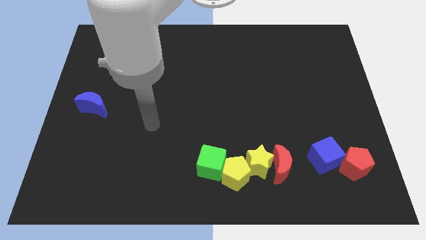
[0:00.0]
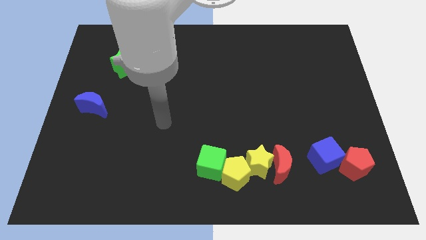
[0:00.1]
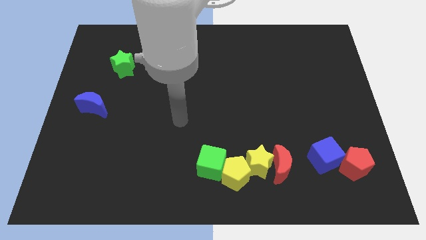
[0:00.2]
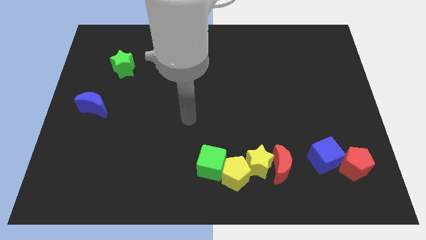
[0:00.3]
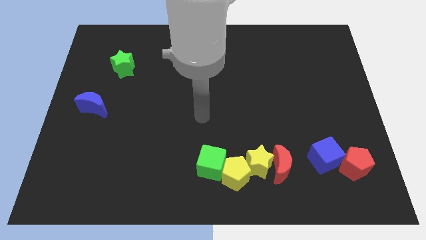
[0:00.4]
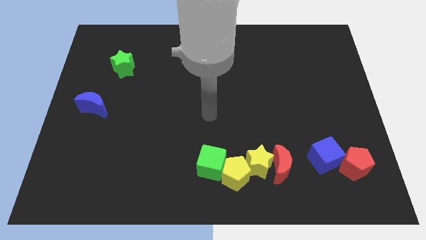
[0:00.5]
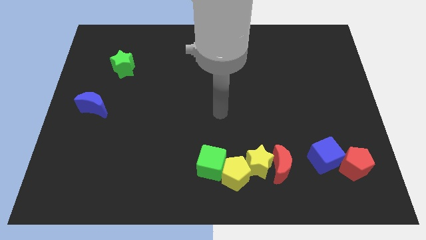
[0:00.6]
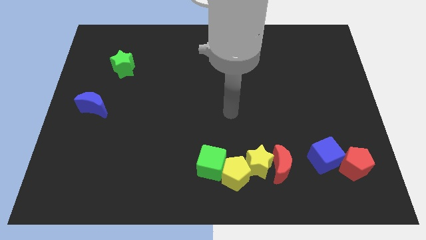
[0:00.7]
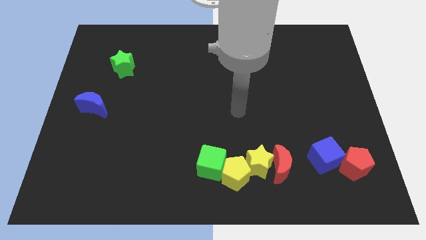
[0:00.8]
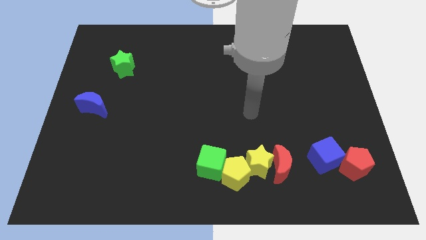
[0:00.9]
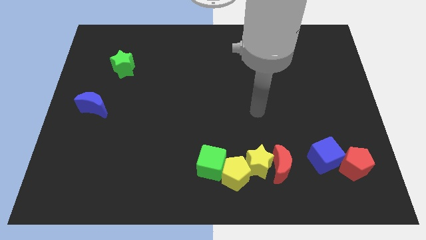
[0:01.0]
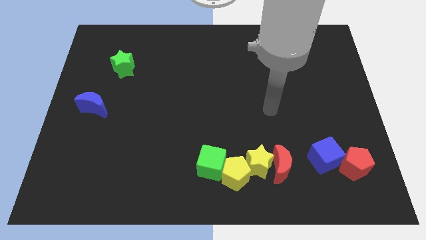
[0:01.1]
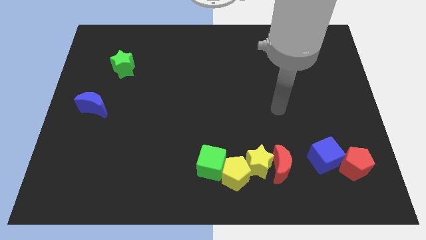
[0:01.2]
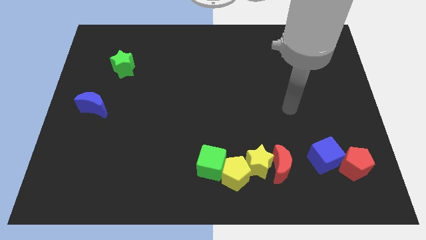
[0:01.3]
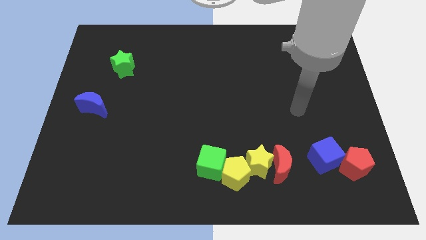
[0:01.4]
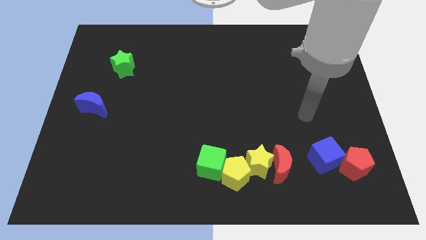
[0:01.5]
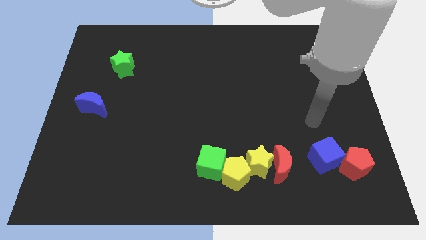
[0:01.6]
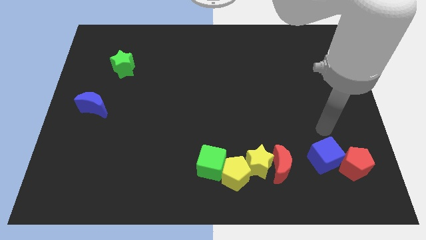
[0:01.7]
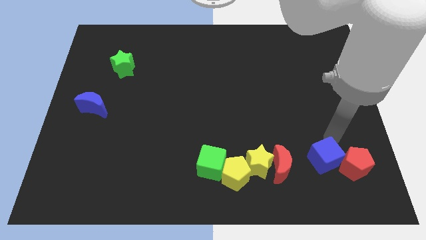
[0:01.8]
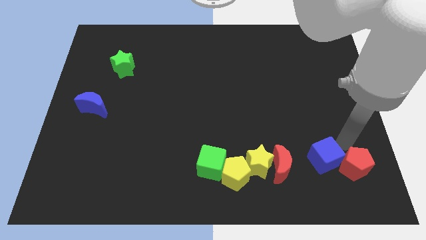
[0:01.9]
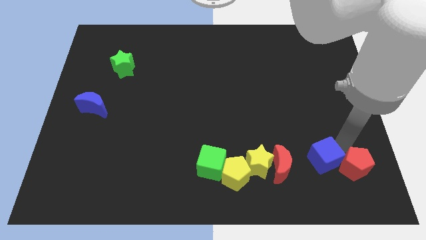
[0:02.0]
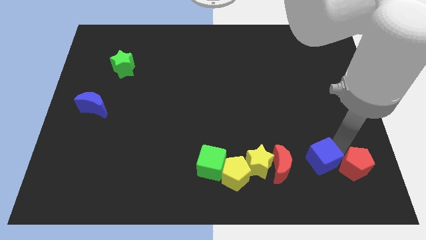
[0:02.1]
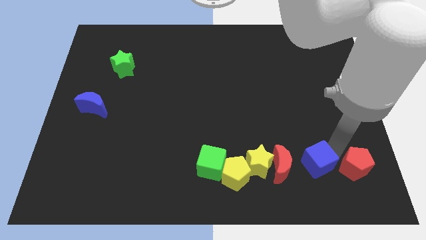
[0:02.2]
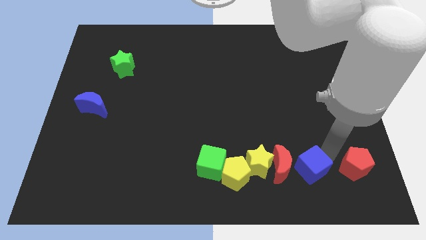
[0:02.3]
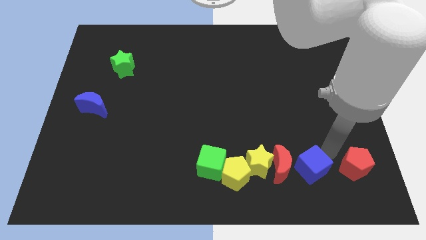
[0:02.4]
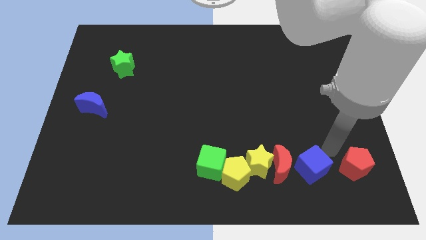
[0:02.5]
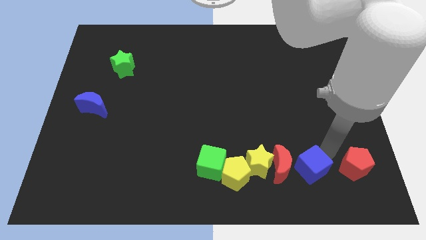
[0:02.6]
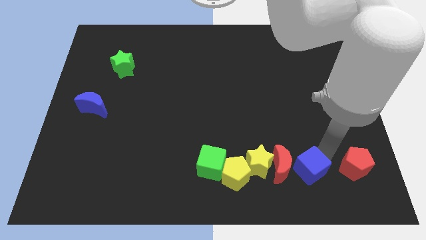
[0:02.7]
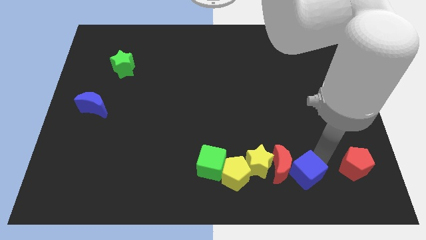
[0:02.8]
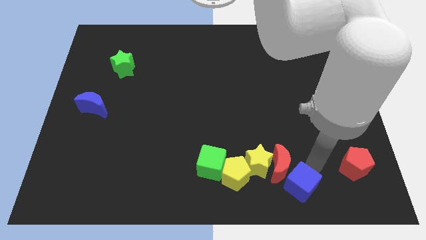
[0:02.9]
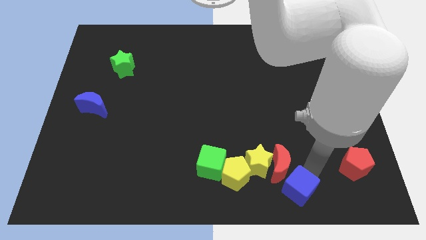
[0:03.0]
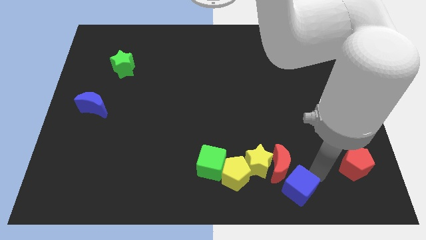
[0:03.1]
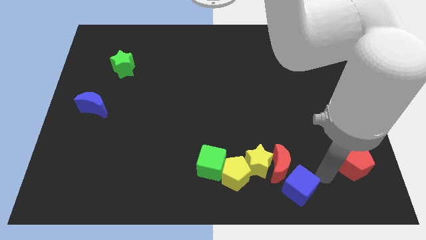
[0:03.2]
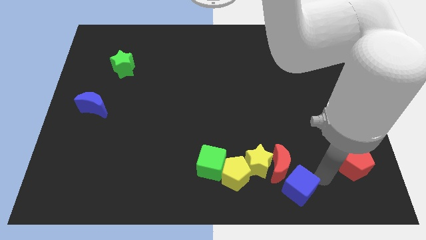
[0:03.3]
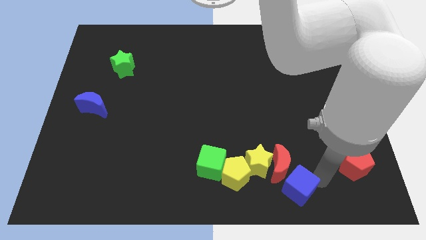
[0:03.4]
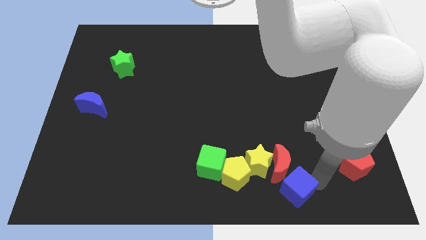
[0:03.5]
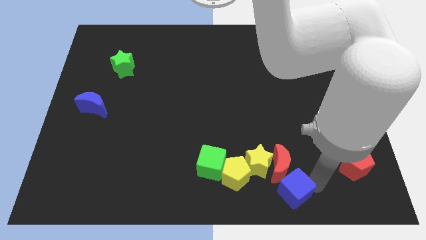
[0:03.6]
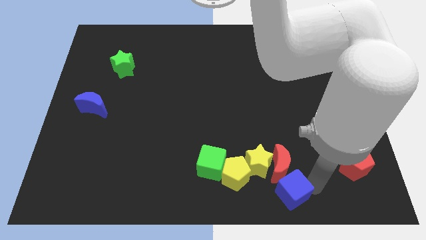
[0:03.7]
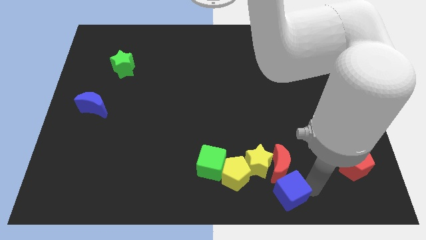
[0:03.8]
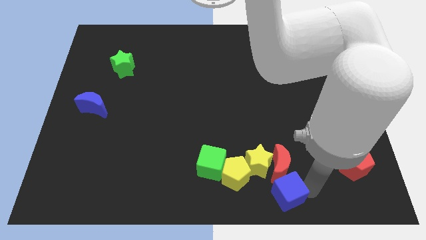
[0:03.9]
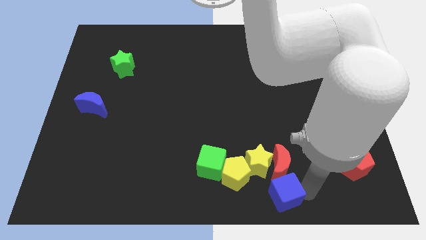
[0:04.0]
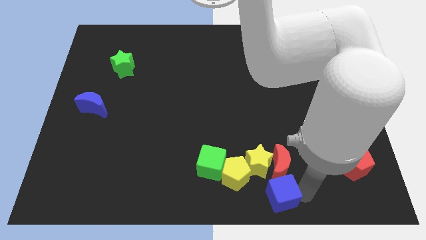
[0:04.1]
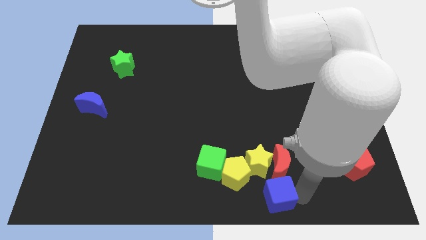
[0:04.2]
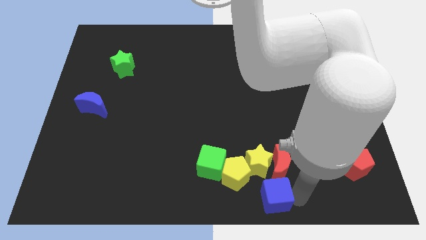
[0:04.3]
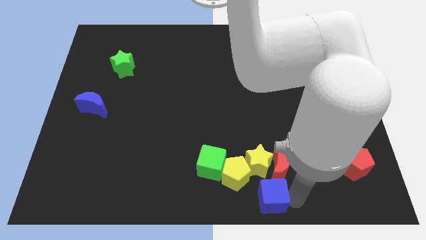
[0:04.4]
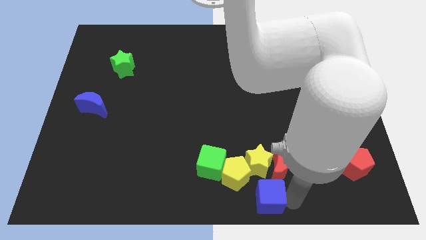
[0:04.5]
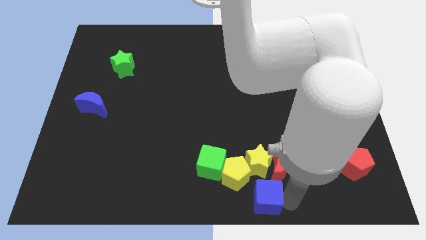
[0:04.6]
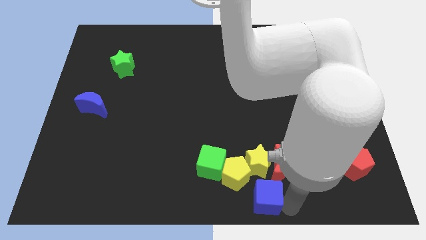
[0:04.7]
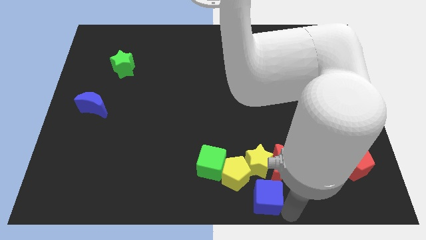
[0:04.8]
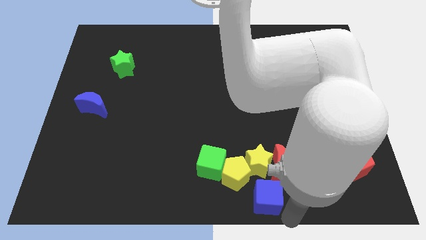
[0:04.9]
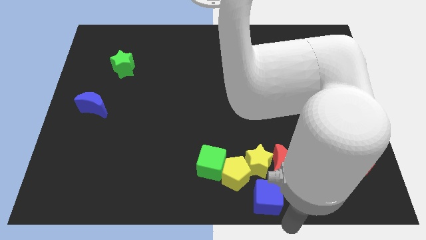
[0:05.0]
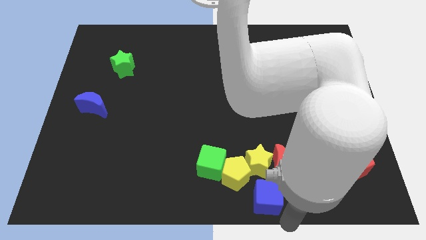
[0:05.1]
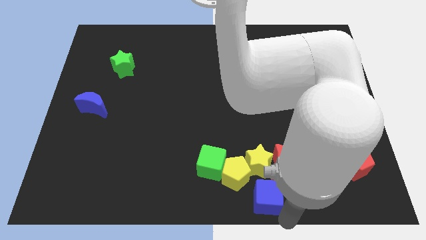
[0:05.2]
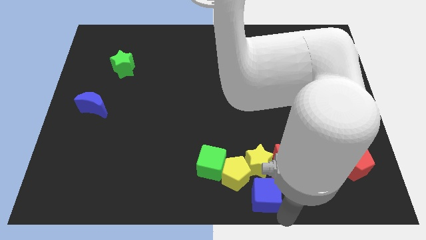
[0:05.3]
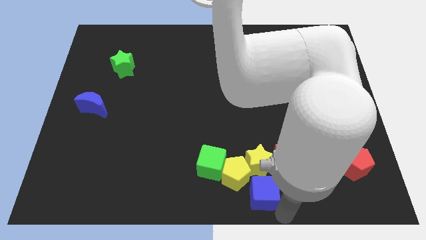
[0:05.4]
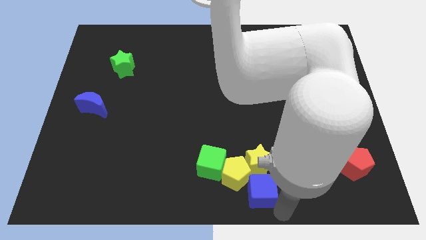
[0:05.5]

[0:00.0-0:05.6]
push the blue cube to the yellow pentagon

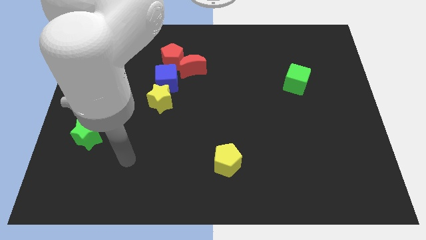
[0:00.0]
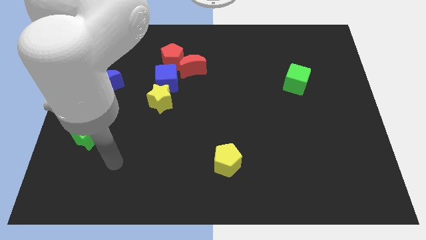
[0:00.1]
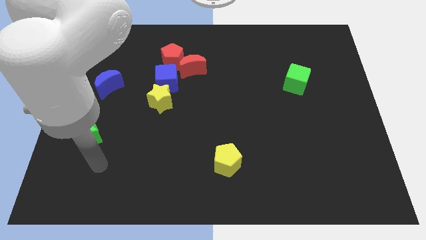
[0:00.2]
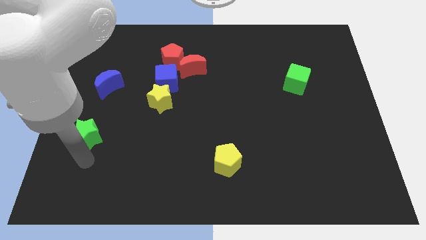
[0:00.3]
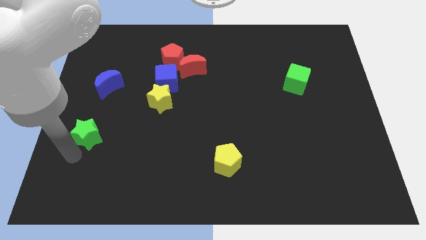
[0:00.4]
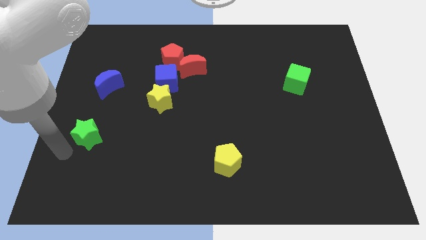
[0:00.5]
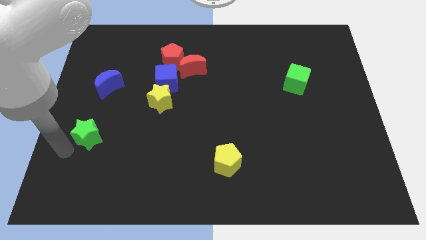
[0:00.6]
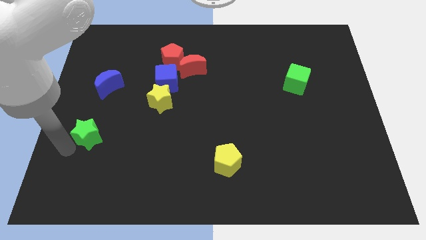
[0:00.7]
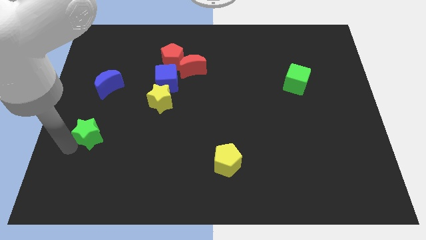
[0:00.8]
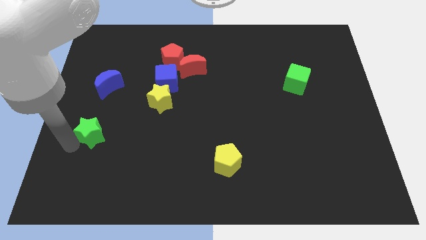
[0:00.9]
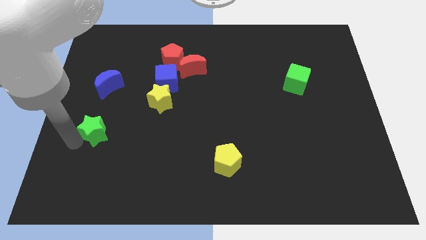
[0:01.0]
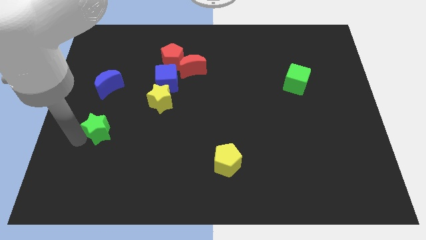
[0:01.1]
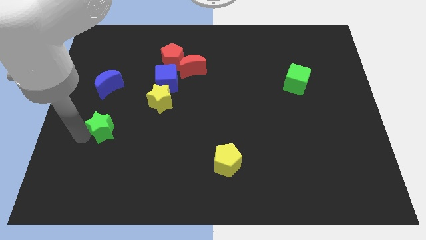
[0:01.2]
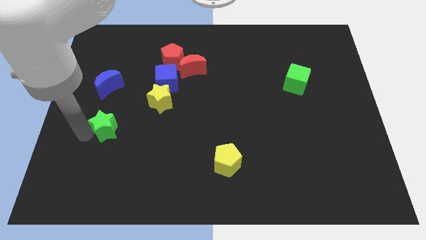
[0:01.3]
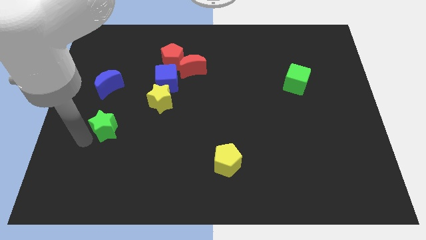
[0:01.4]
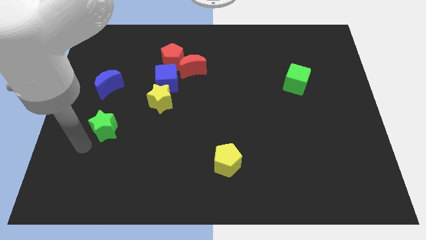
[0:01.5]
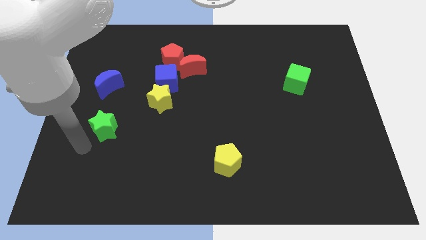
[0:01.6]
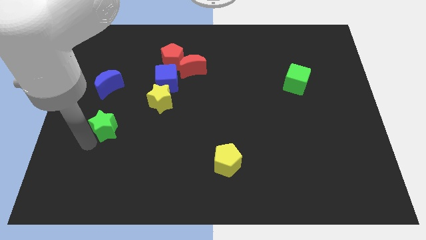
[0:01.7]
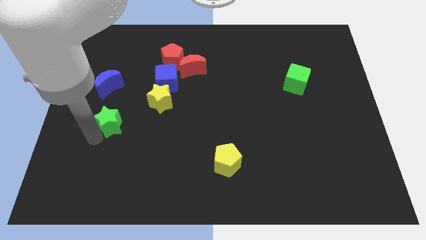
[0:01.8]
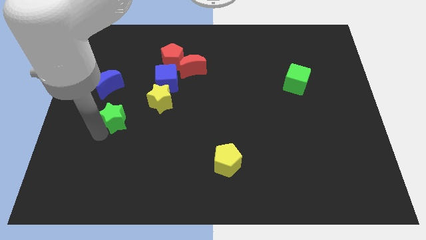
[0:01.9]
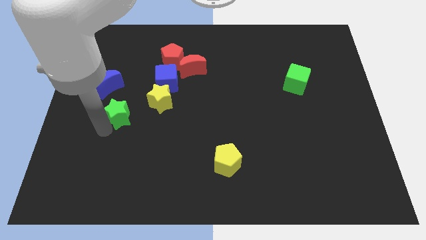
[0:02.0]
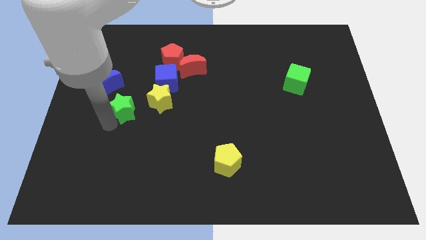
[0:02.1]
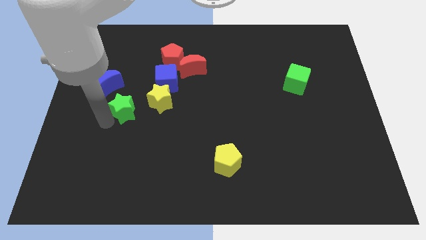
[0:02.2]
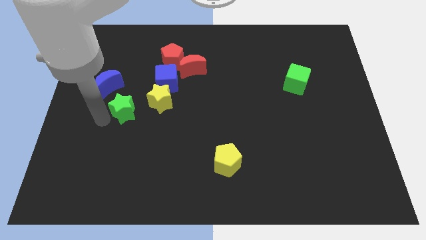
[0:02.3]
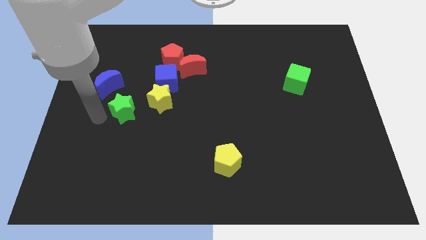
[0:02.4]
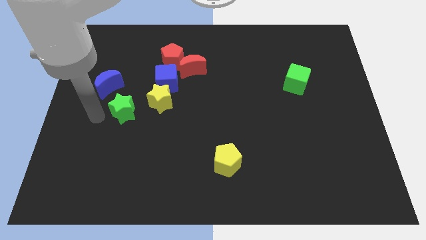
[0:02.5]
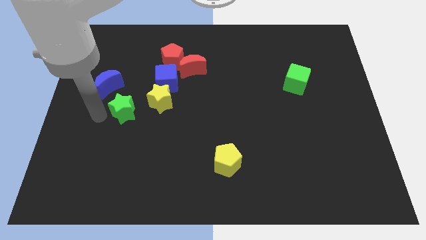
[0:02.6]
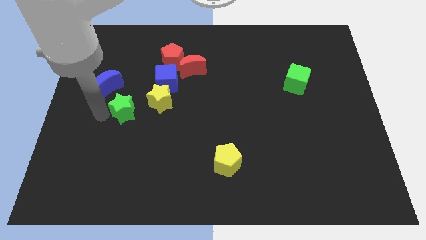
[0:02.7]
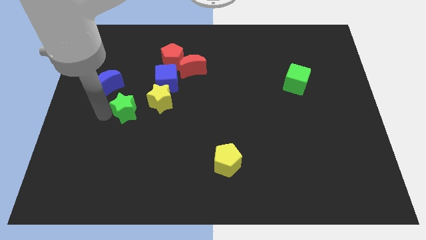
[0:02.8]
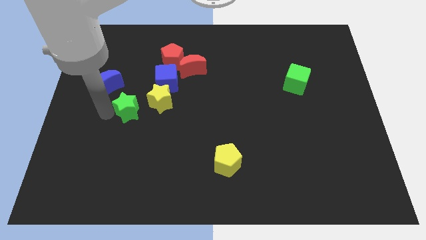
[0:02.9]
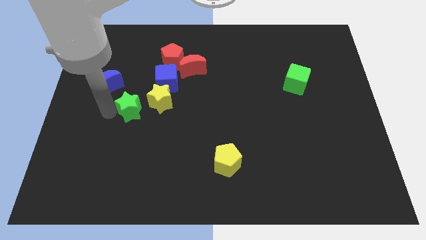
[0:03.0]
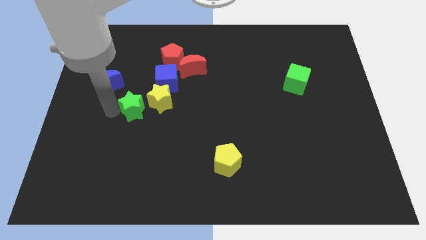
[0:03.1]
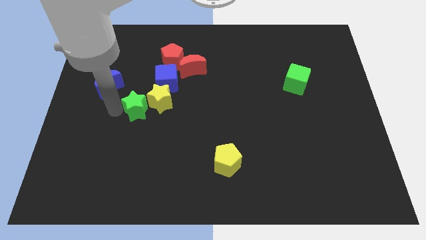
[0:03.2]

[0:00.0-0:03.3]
put the green star next to the yellow star
